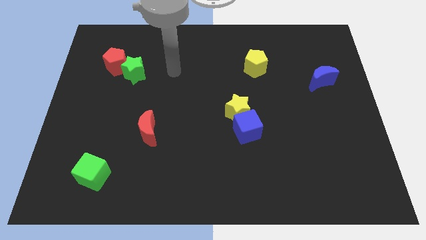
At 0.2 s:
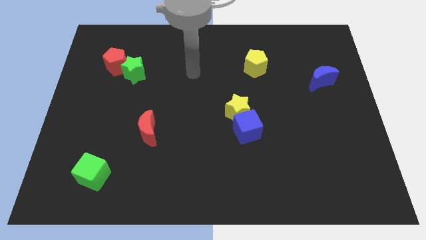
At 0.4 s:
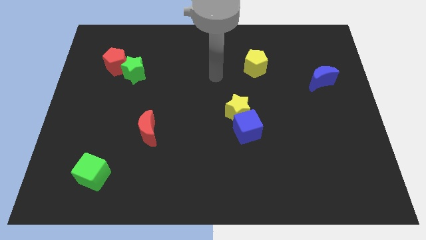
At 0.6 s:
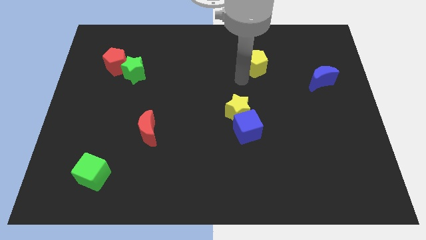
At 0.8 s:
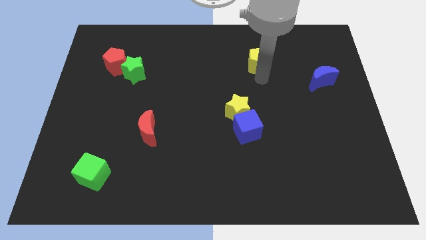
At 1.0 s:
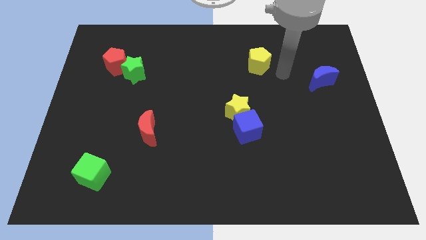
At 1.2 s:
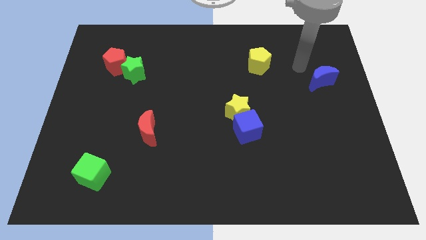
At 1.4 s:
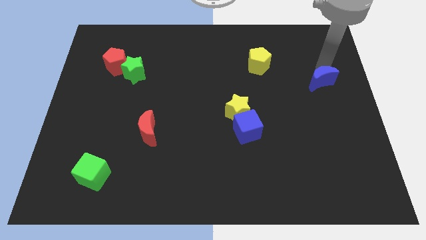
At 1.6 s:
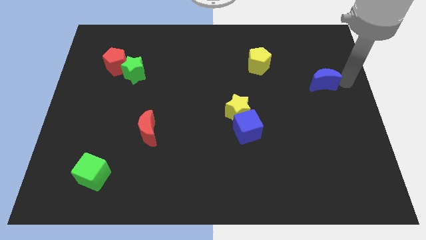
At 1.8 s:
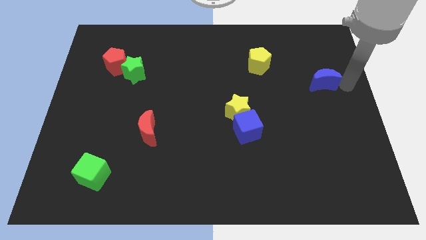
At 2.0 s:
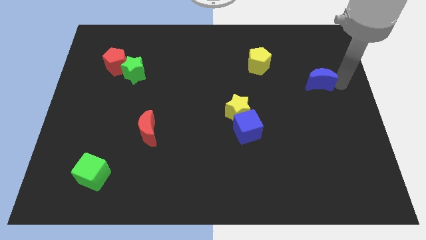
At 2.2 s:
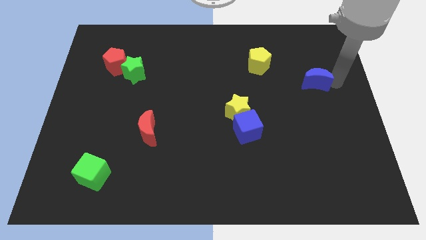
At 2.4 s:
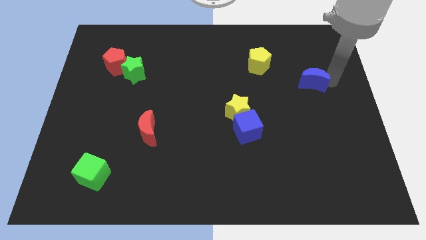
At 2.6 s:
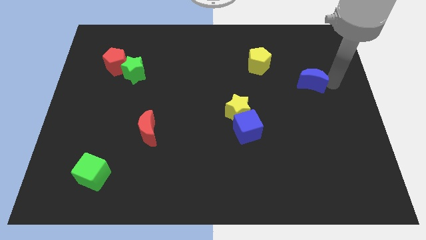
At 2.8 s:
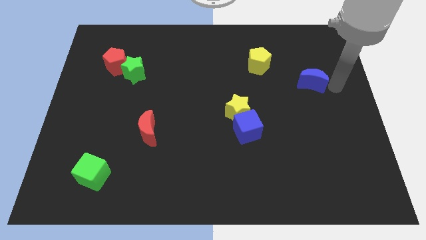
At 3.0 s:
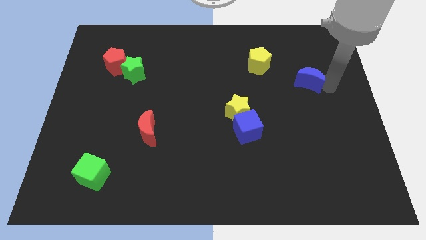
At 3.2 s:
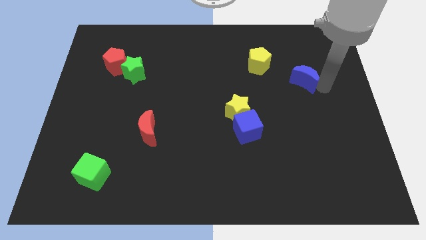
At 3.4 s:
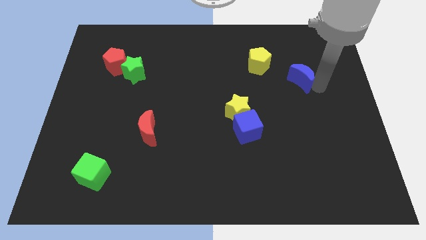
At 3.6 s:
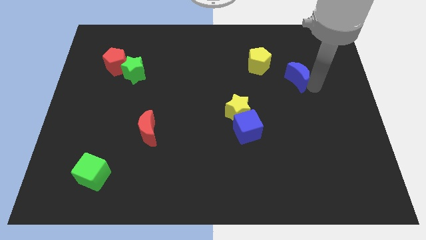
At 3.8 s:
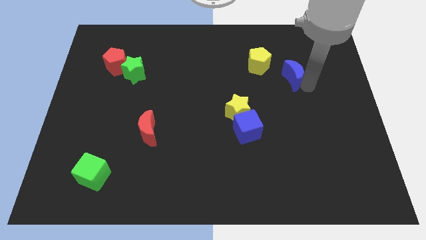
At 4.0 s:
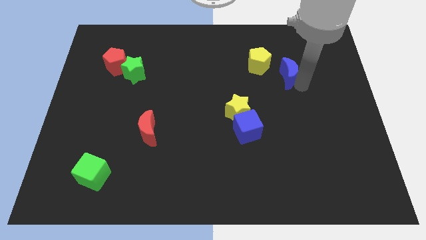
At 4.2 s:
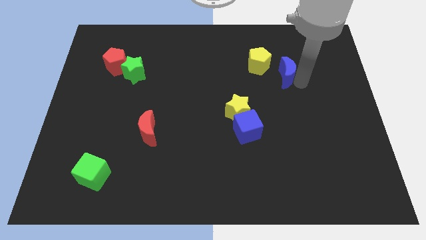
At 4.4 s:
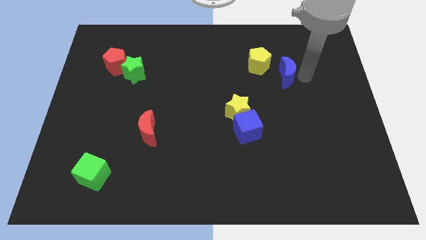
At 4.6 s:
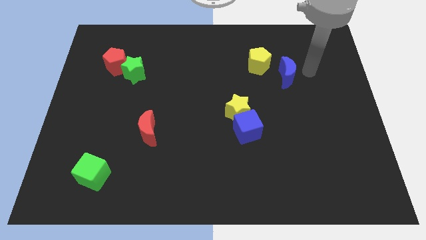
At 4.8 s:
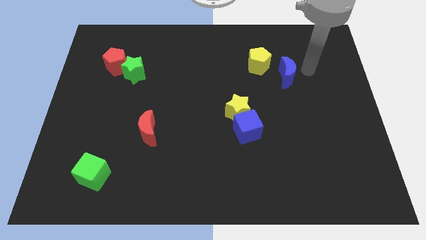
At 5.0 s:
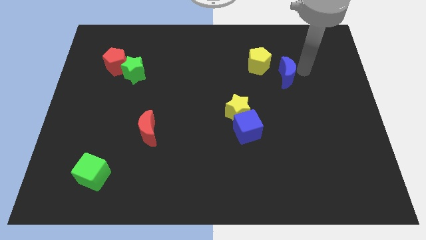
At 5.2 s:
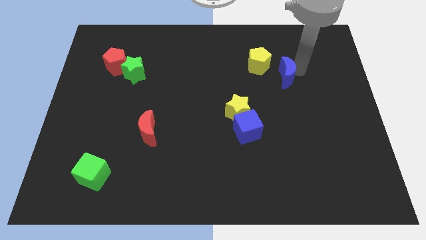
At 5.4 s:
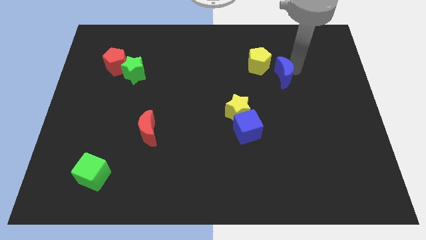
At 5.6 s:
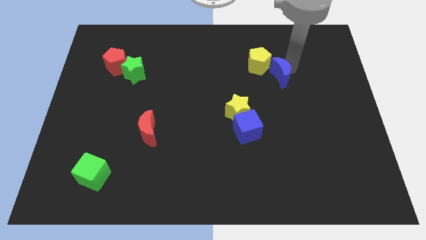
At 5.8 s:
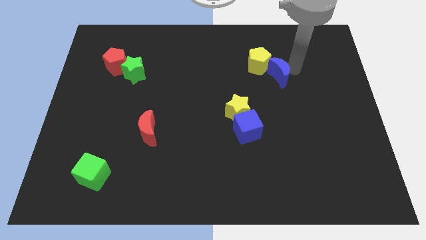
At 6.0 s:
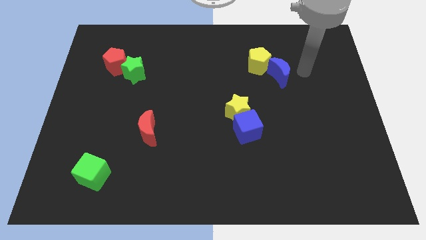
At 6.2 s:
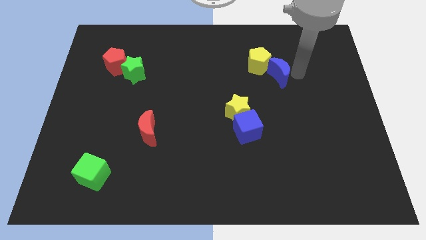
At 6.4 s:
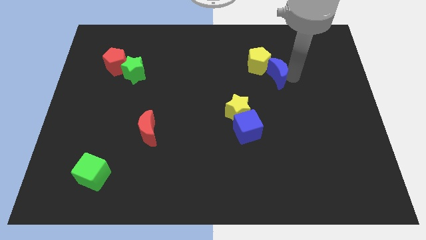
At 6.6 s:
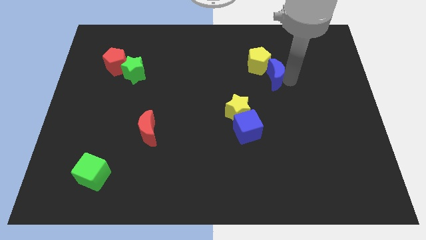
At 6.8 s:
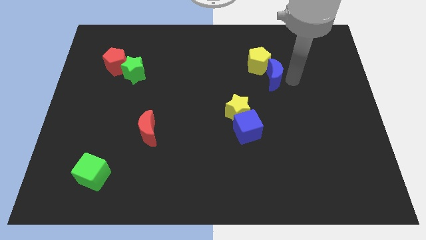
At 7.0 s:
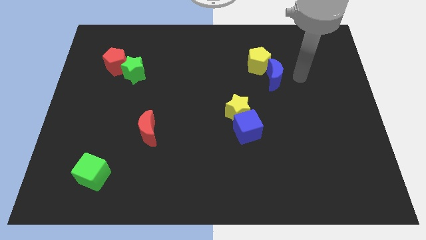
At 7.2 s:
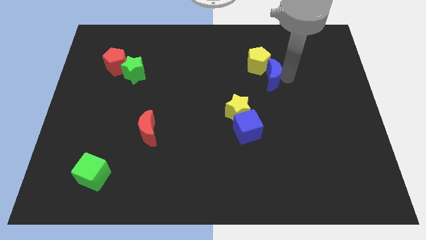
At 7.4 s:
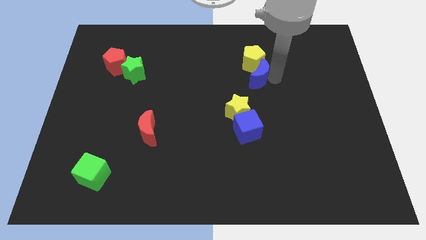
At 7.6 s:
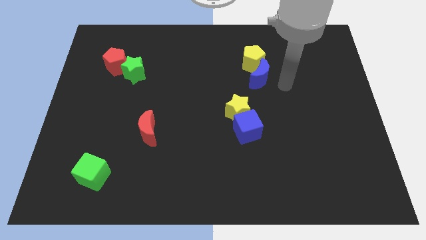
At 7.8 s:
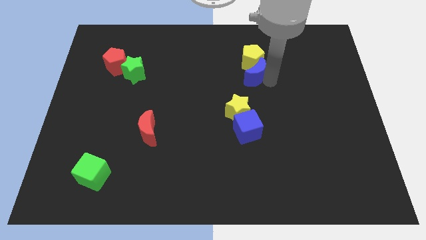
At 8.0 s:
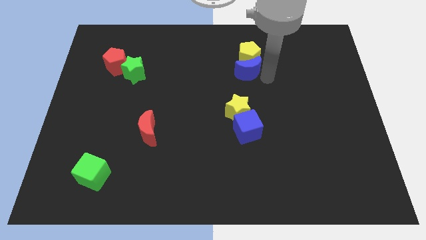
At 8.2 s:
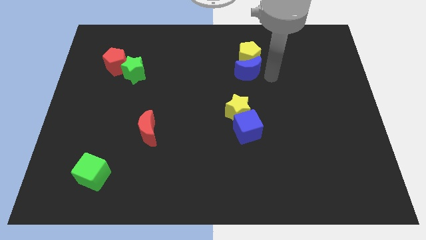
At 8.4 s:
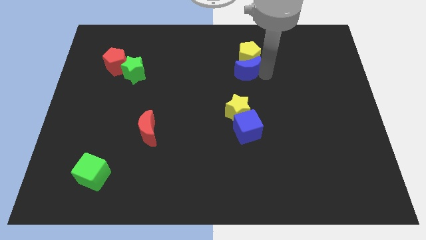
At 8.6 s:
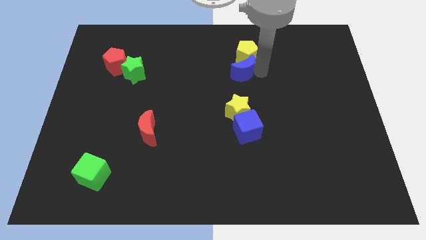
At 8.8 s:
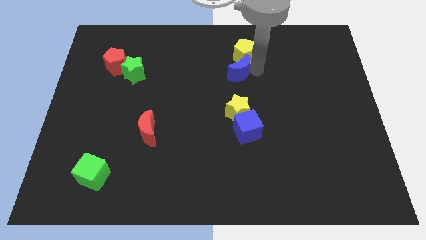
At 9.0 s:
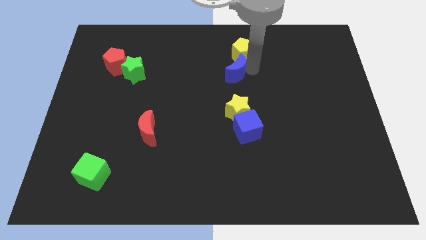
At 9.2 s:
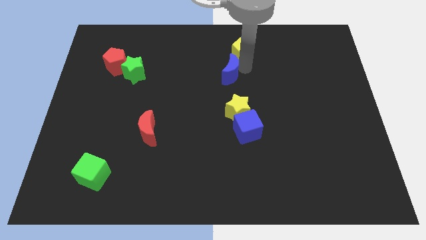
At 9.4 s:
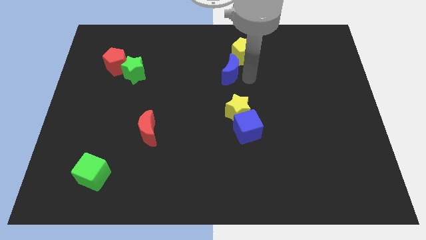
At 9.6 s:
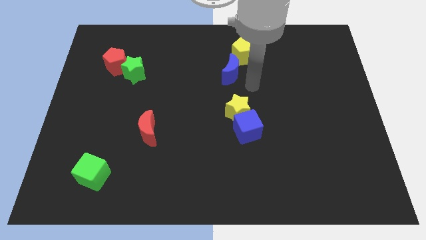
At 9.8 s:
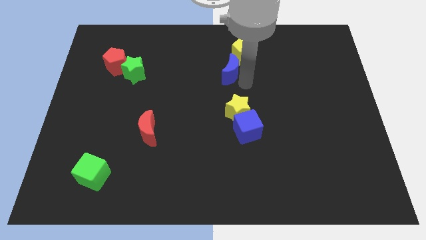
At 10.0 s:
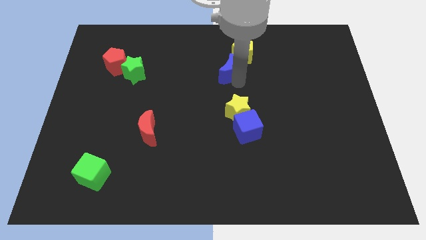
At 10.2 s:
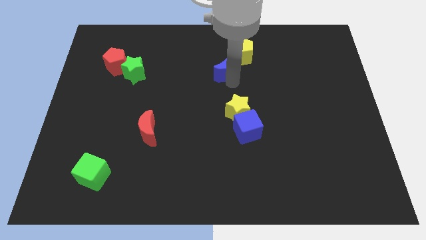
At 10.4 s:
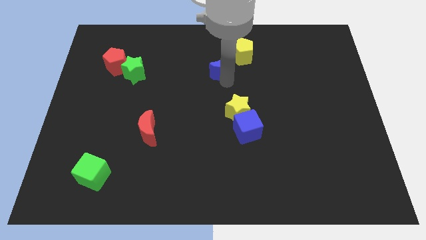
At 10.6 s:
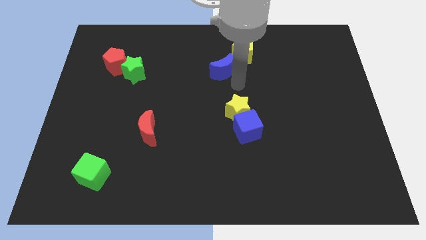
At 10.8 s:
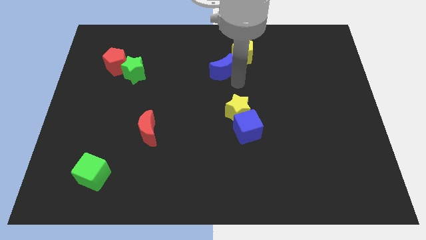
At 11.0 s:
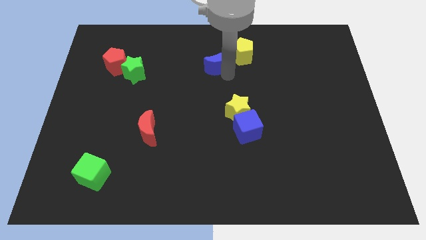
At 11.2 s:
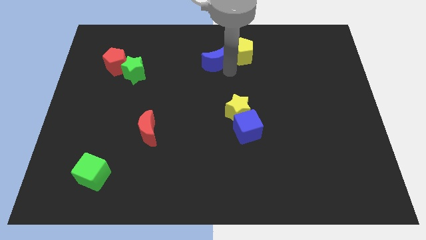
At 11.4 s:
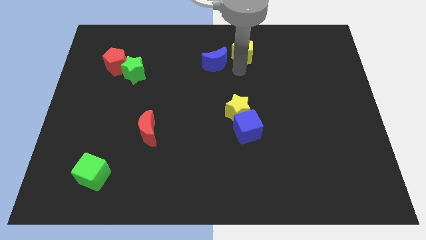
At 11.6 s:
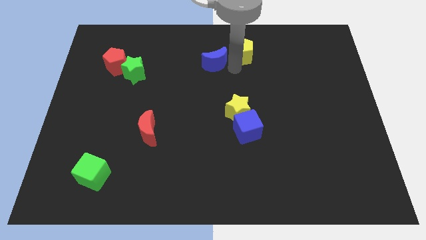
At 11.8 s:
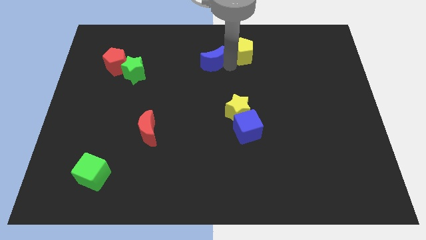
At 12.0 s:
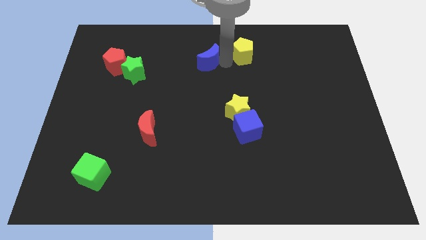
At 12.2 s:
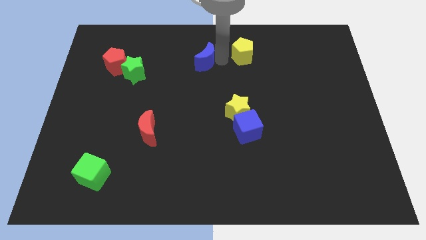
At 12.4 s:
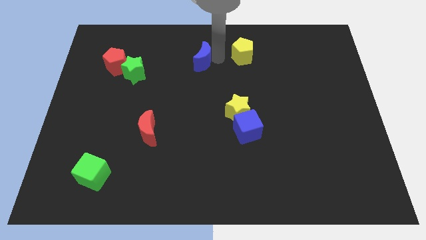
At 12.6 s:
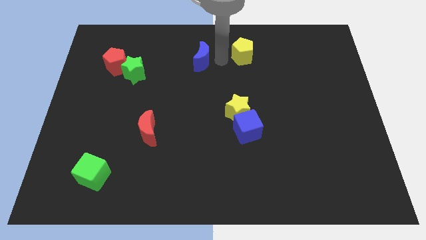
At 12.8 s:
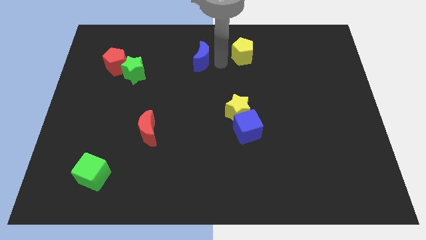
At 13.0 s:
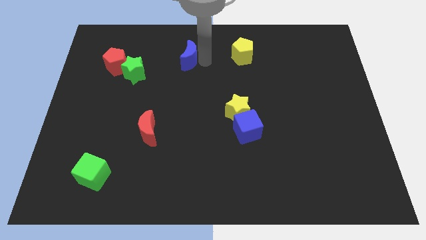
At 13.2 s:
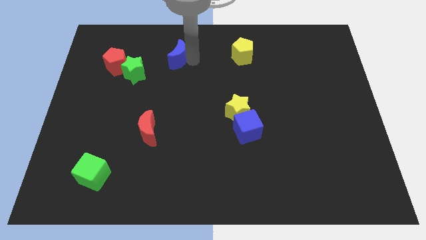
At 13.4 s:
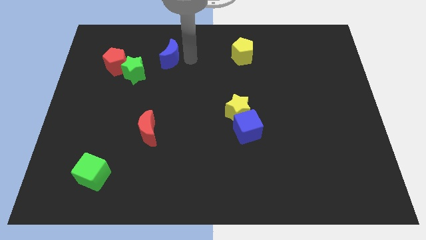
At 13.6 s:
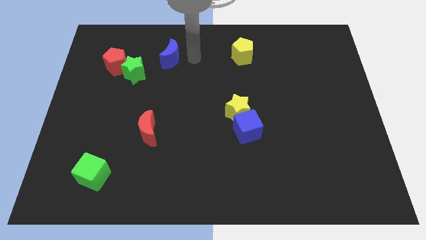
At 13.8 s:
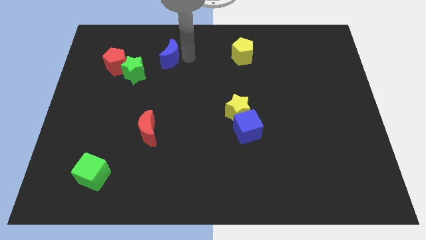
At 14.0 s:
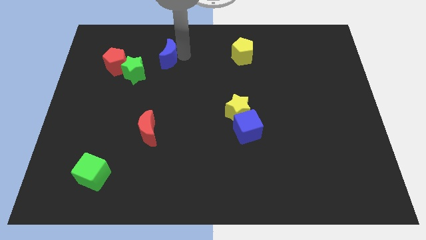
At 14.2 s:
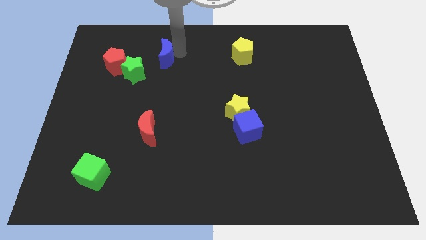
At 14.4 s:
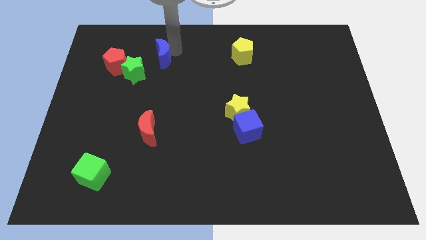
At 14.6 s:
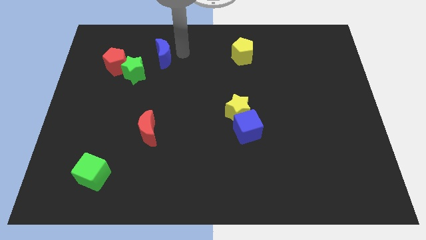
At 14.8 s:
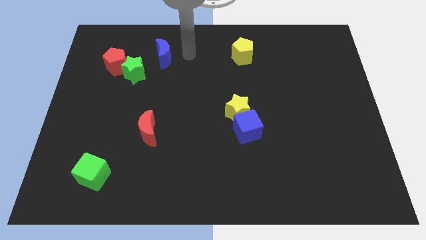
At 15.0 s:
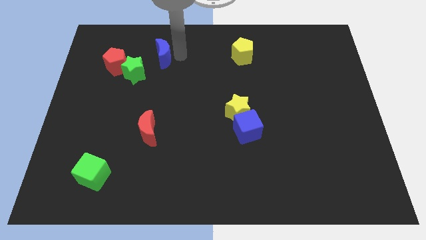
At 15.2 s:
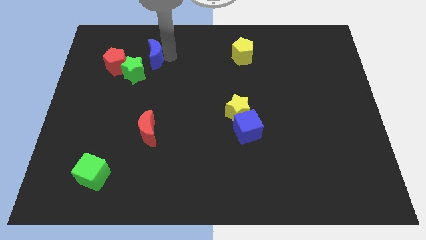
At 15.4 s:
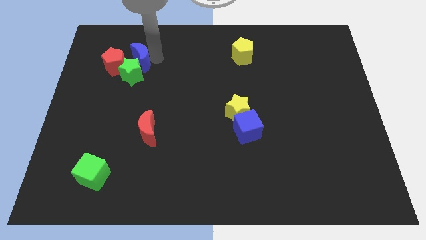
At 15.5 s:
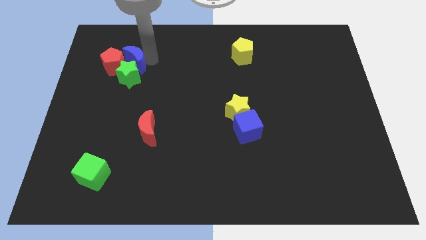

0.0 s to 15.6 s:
push the blue moon close to the red pentagon

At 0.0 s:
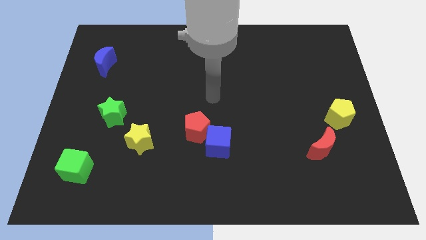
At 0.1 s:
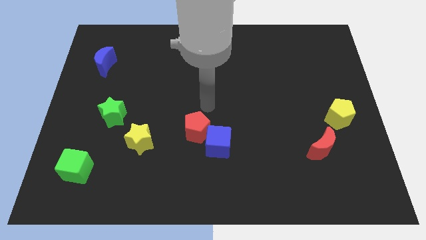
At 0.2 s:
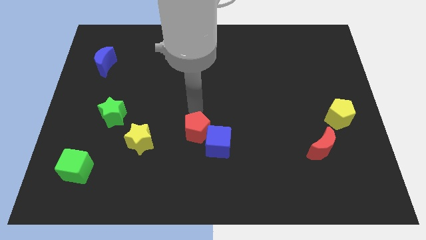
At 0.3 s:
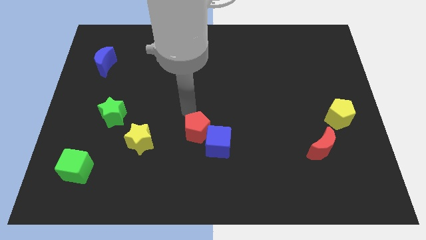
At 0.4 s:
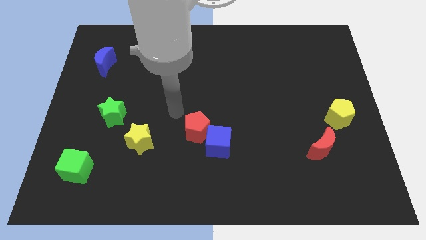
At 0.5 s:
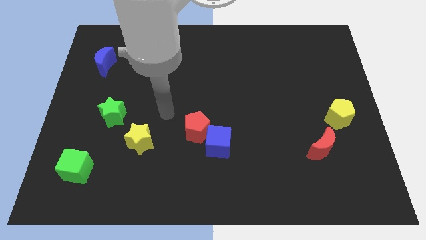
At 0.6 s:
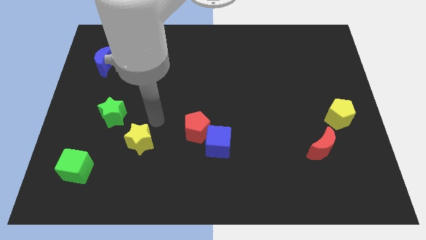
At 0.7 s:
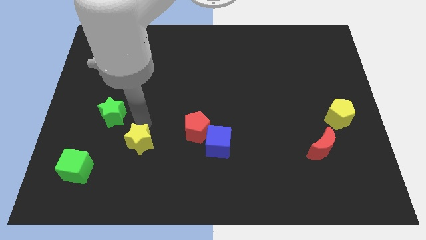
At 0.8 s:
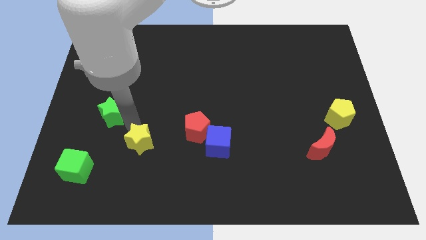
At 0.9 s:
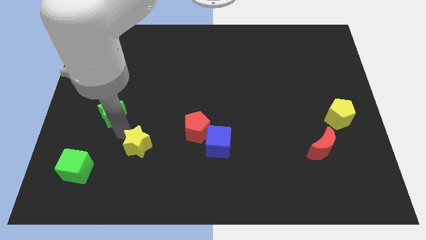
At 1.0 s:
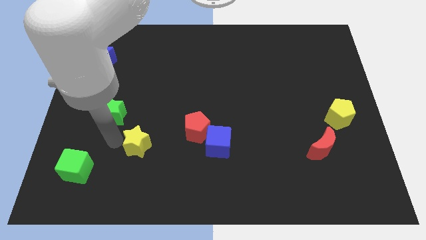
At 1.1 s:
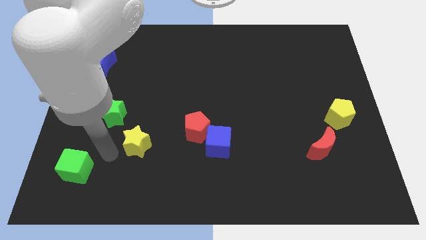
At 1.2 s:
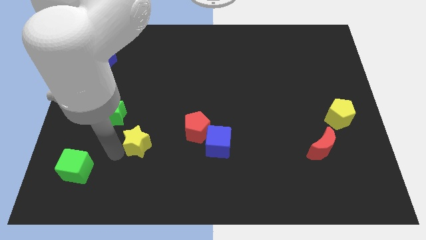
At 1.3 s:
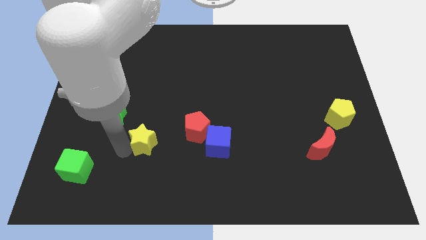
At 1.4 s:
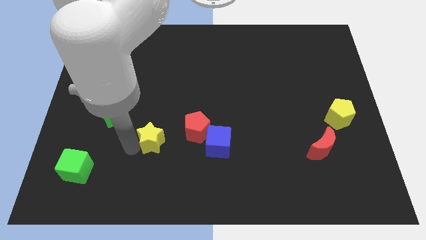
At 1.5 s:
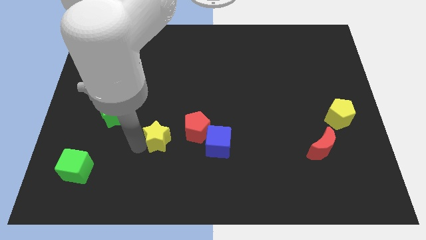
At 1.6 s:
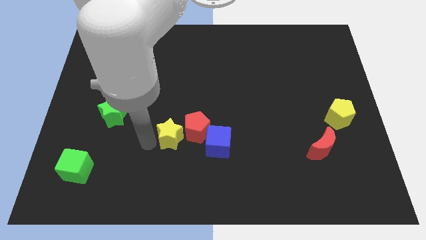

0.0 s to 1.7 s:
move the yellow star close to the red pentagon
